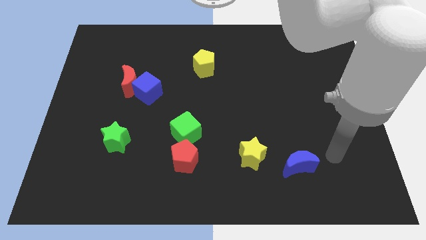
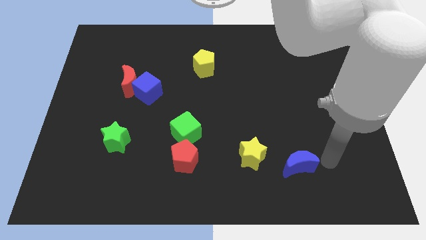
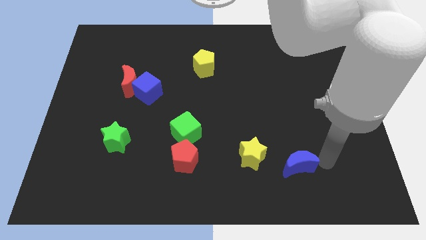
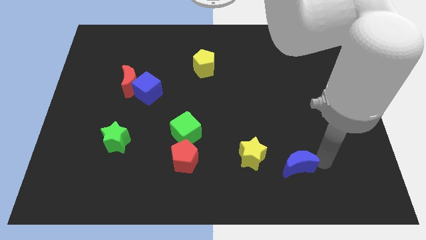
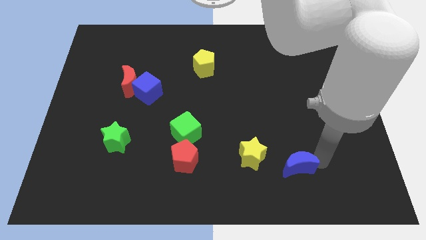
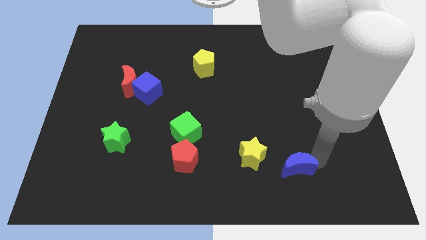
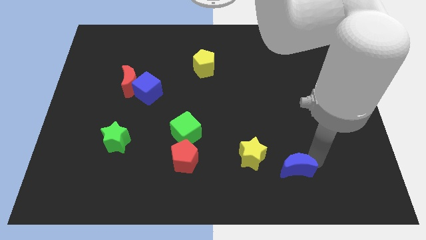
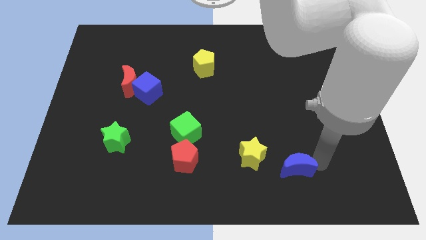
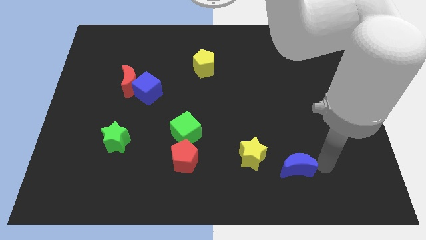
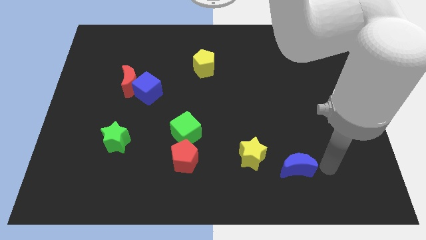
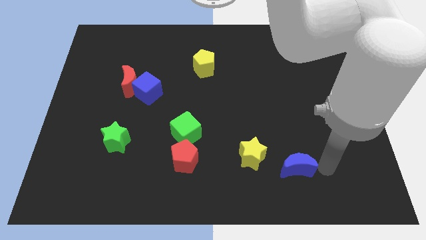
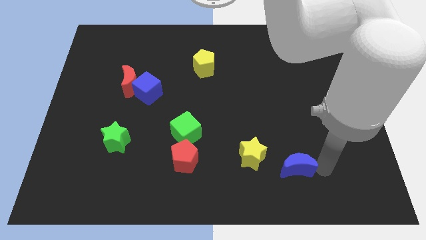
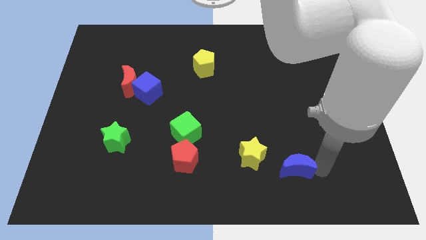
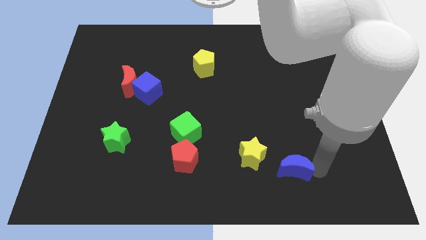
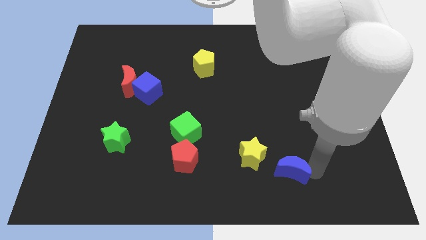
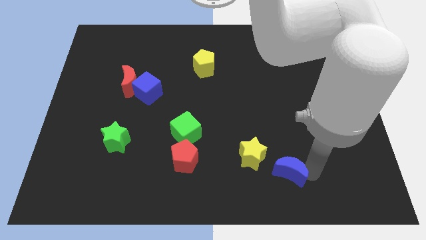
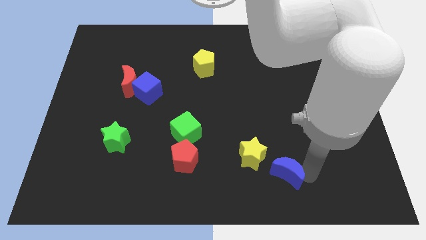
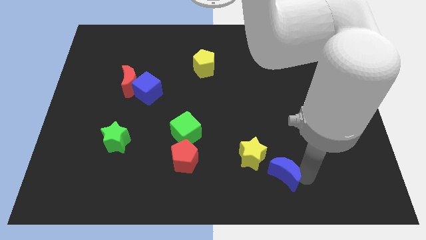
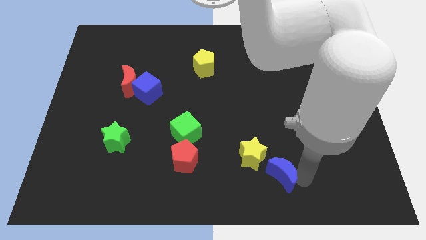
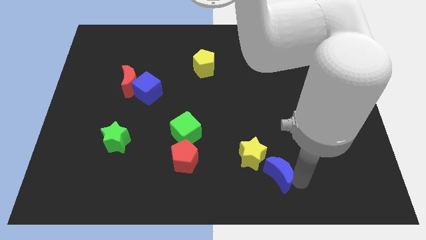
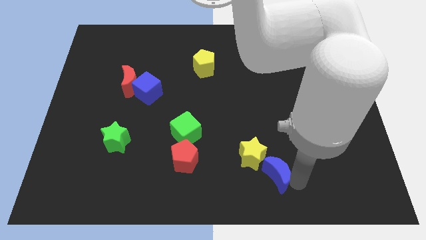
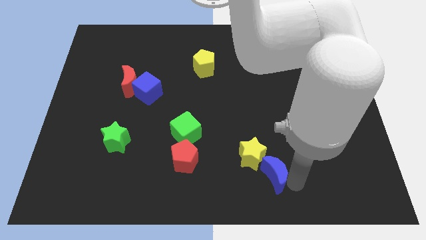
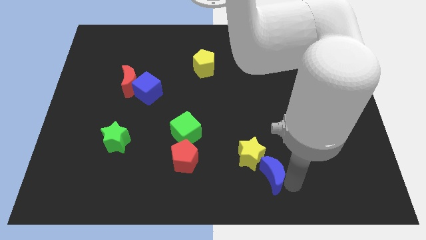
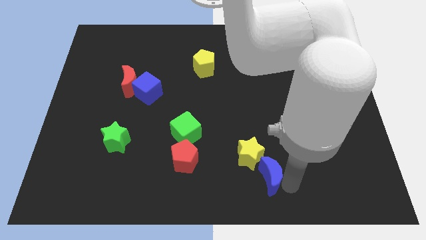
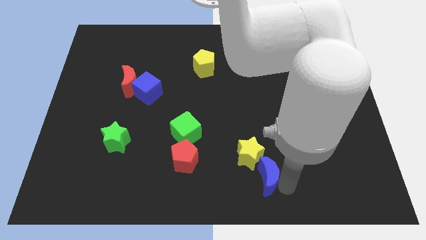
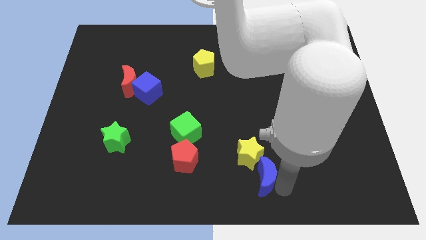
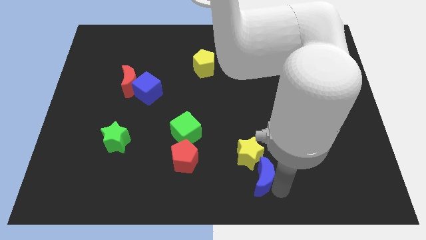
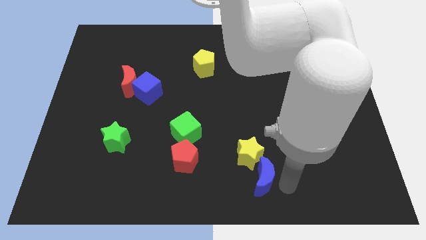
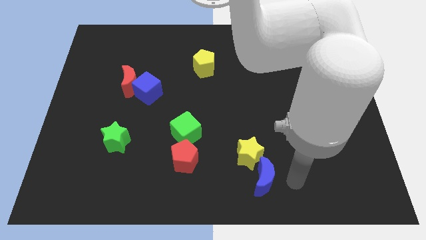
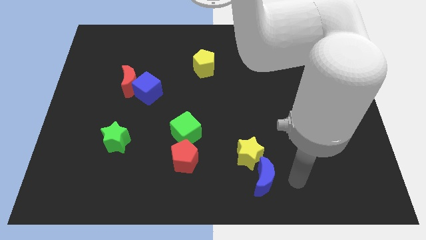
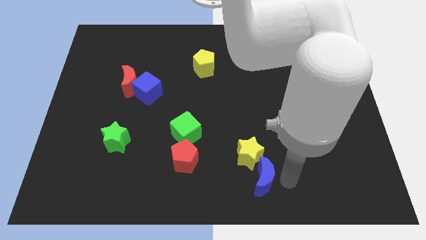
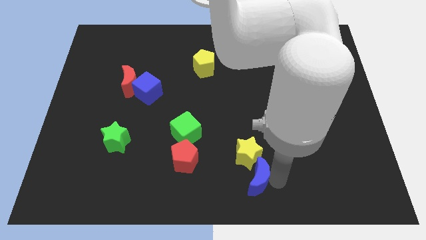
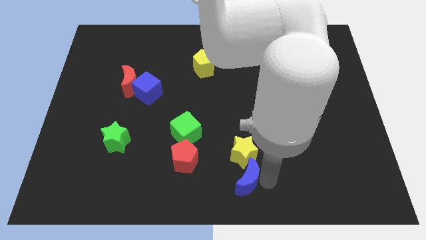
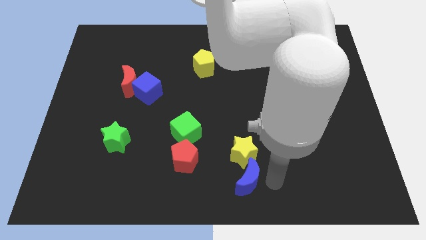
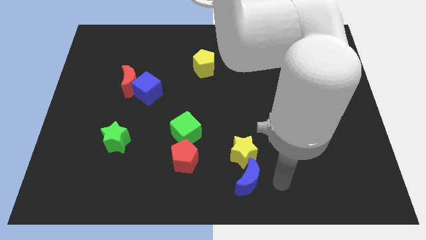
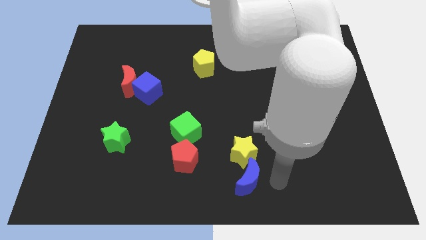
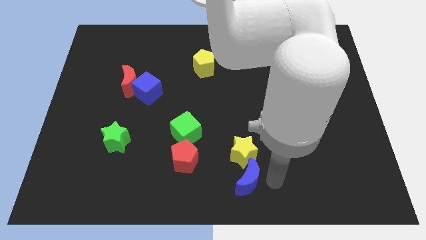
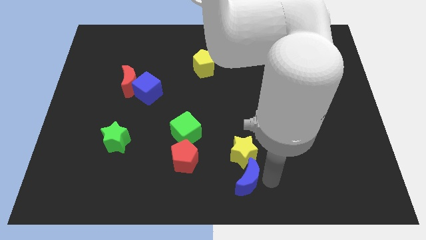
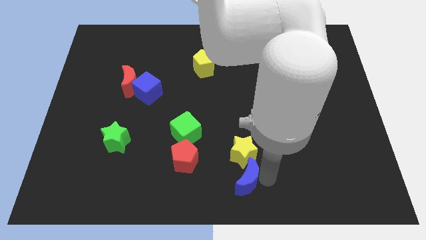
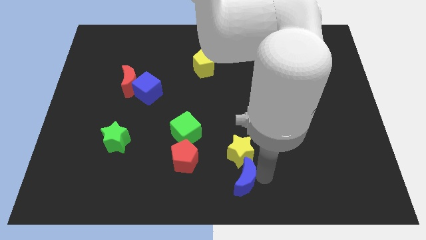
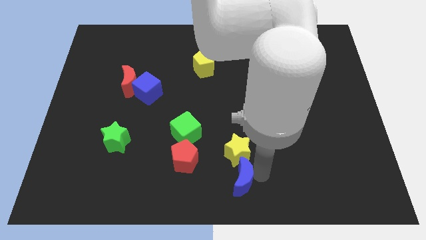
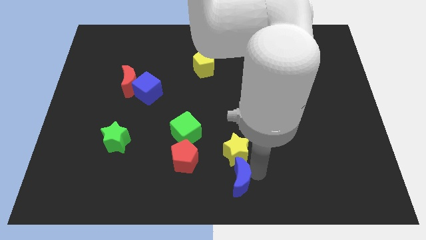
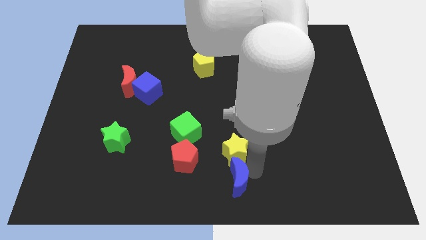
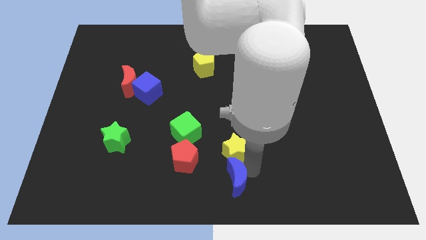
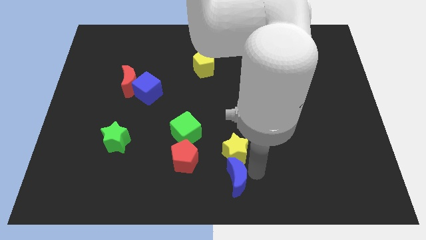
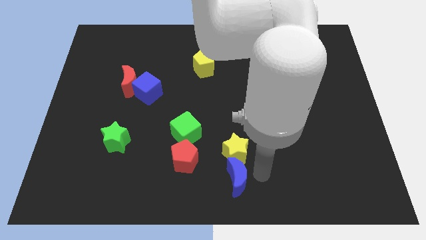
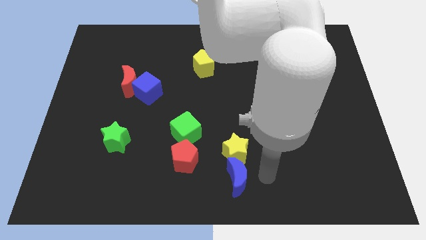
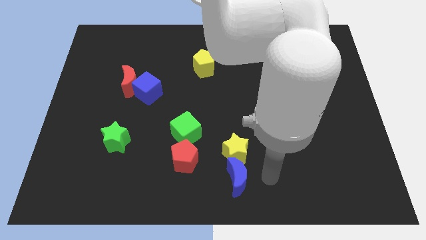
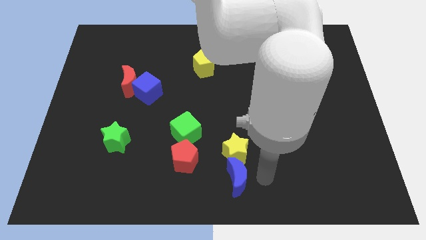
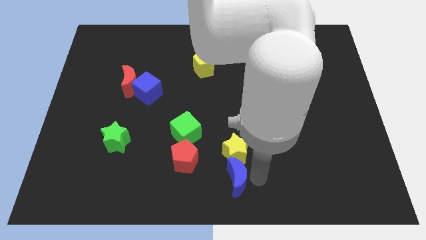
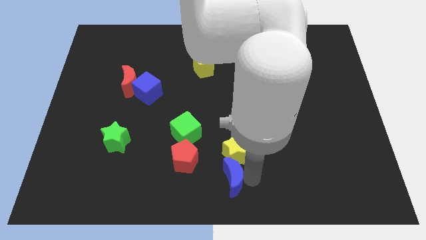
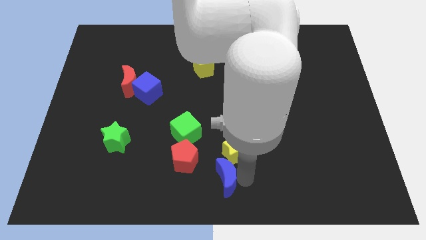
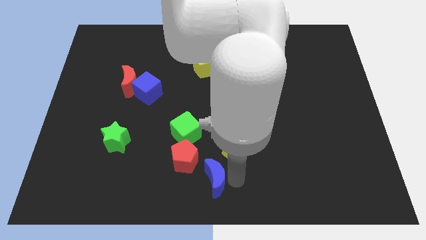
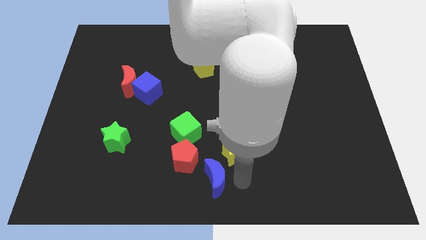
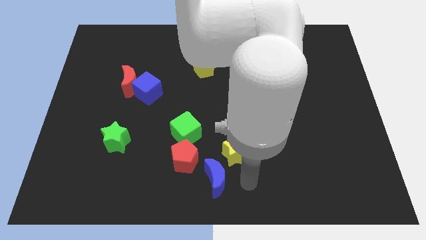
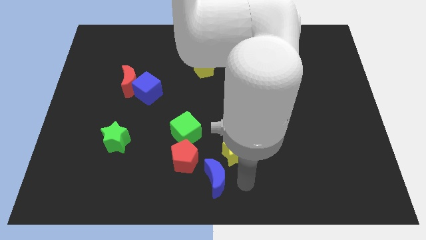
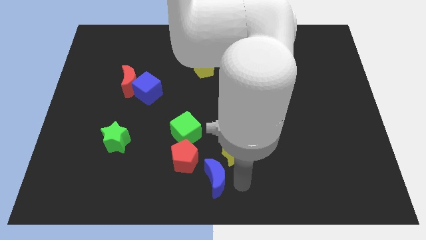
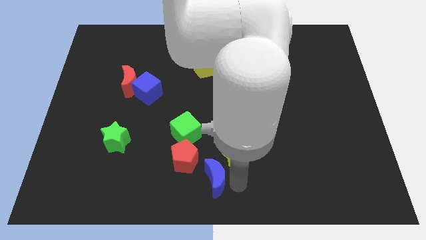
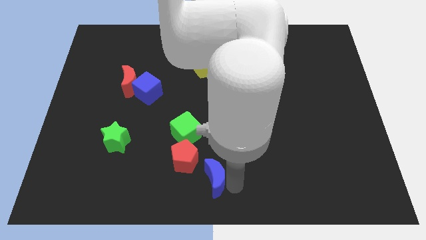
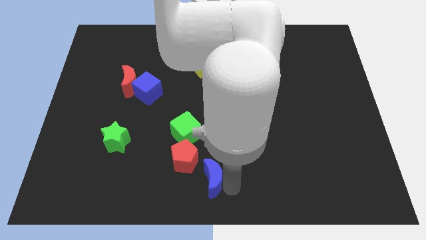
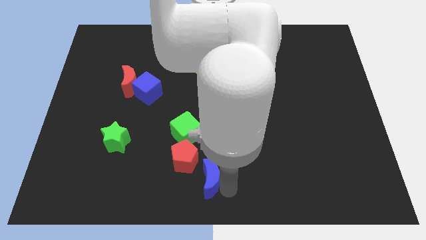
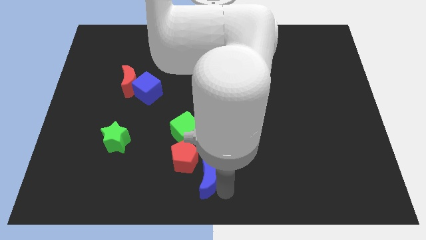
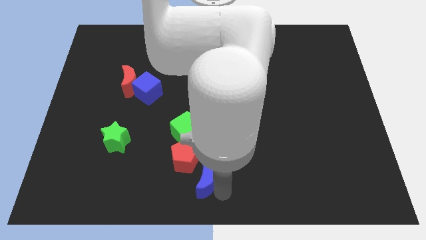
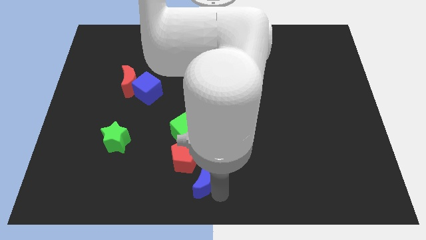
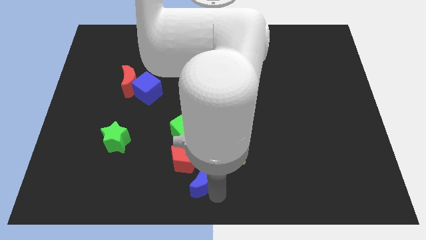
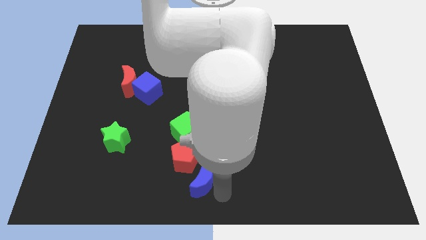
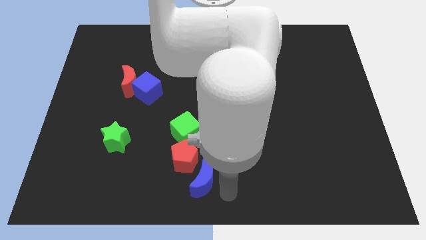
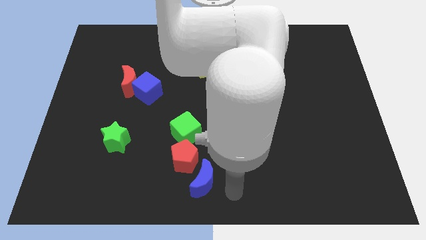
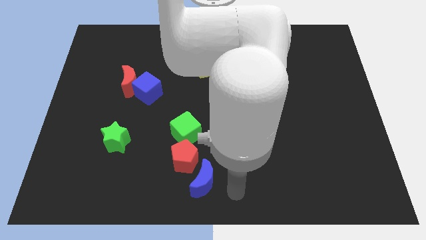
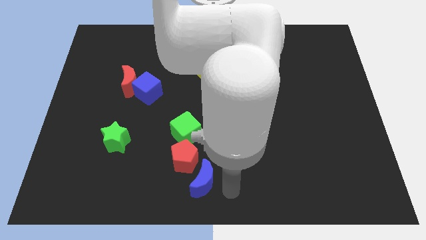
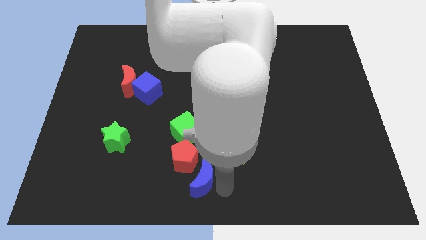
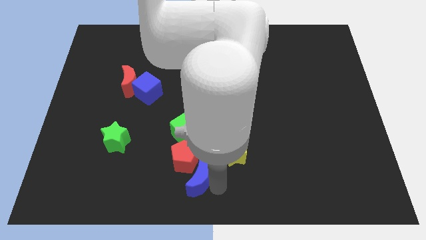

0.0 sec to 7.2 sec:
push the blue moon to the left

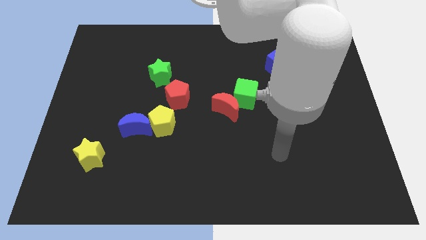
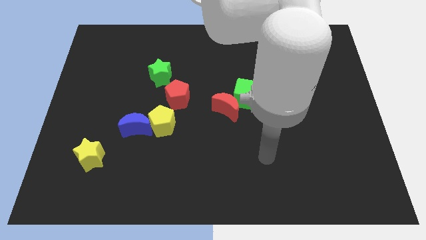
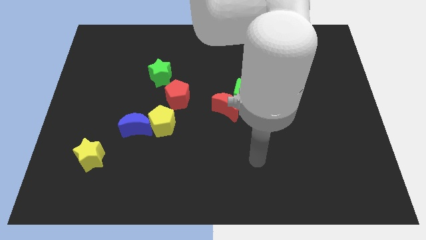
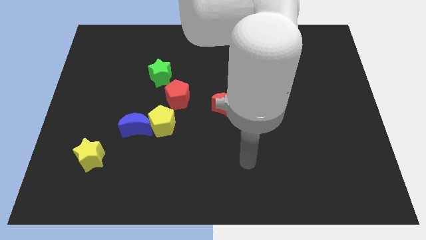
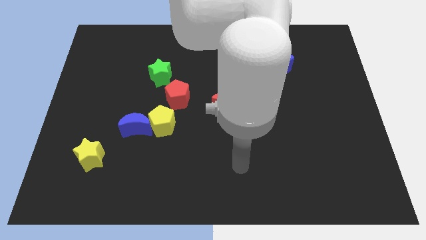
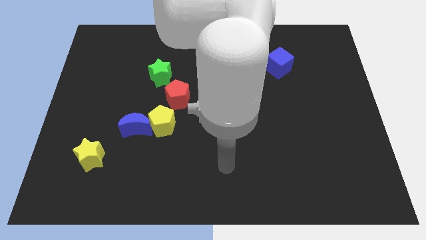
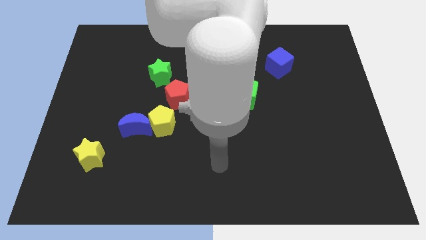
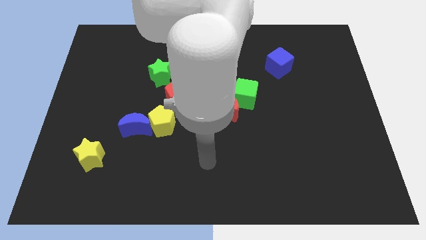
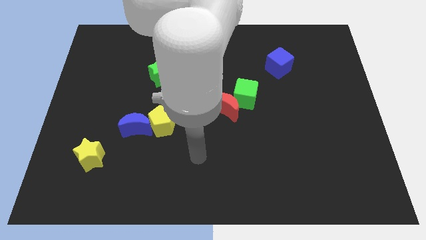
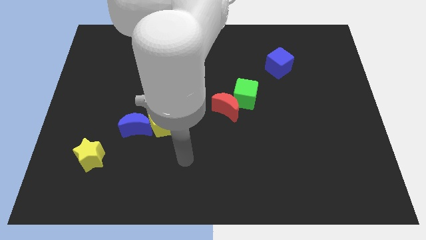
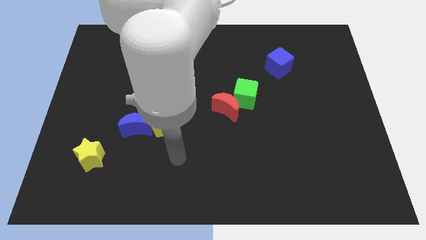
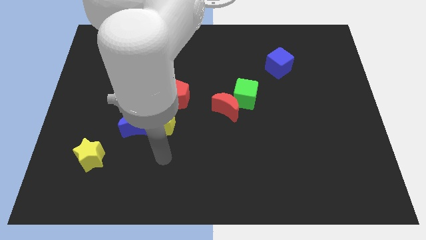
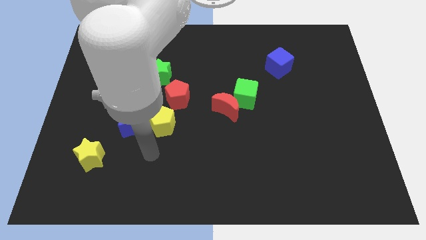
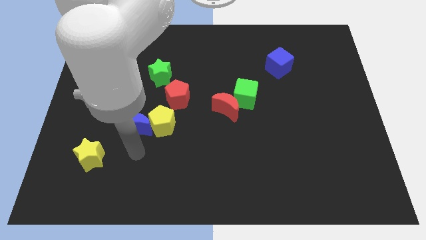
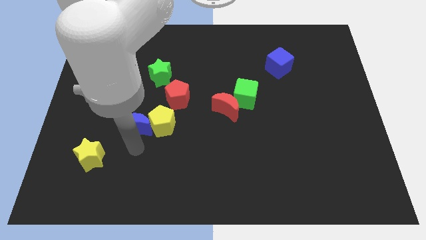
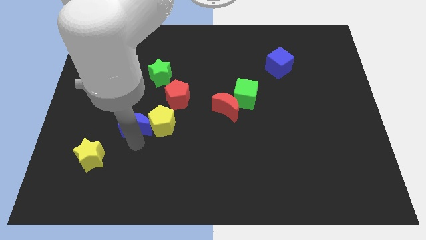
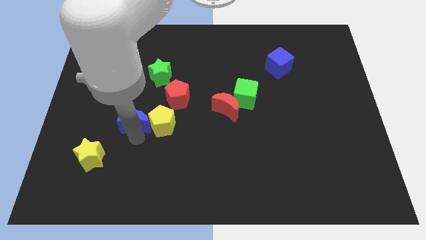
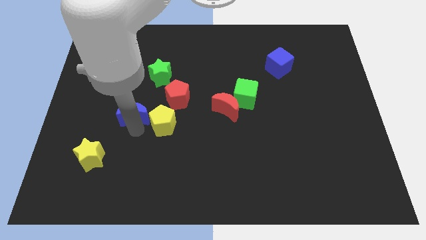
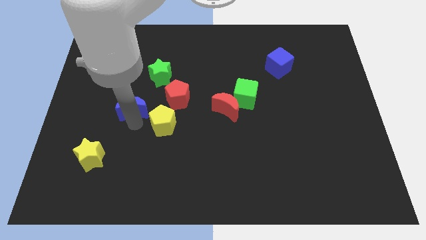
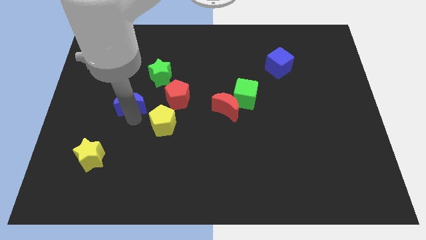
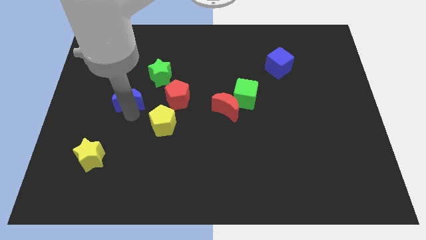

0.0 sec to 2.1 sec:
slide the blue moon slightly upwards
